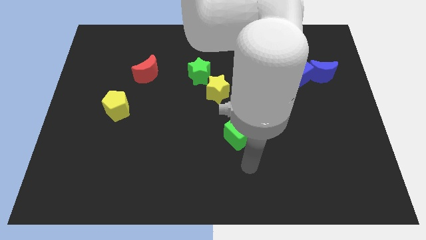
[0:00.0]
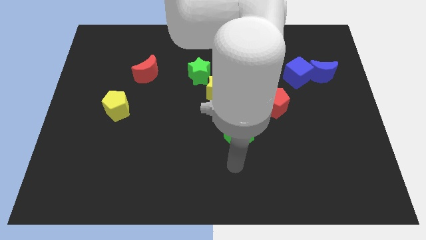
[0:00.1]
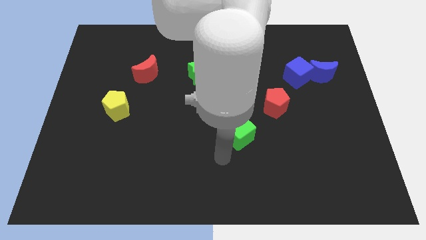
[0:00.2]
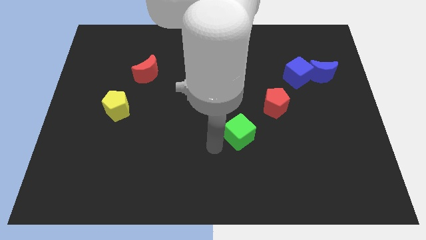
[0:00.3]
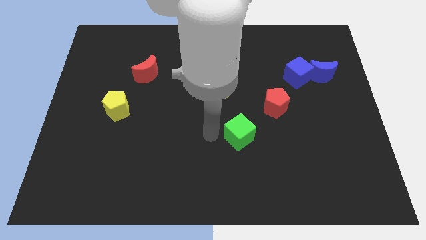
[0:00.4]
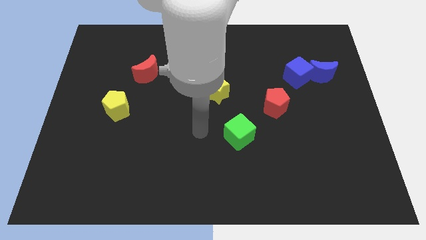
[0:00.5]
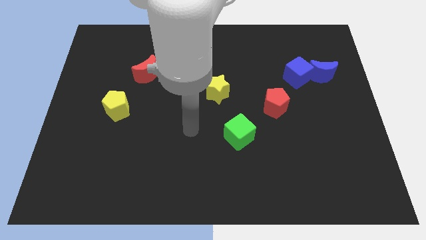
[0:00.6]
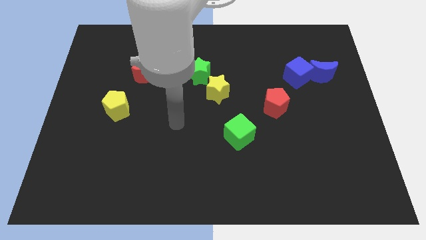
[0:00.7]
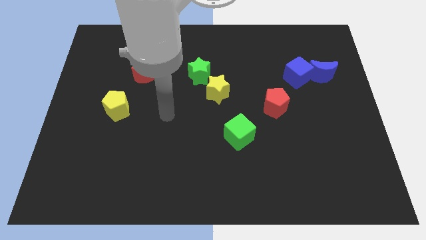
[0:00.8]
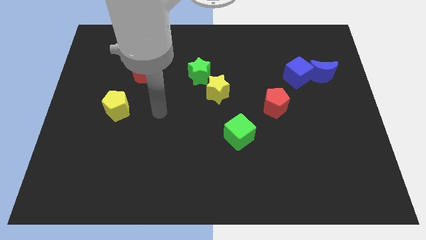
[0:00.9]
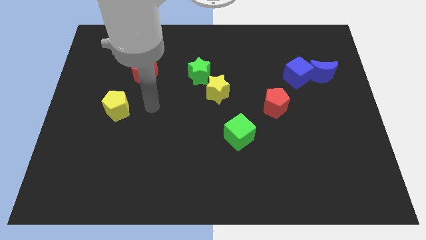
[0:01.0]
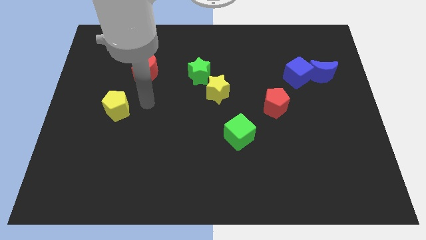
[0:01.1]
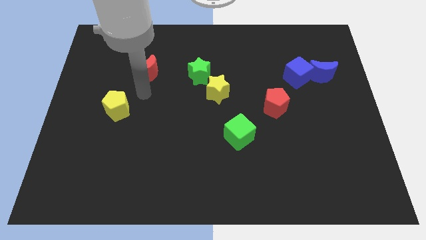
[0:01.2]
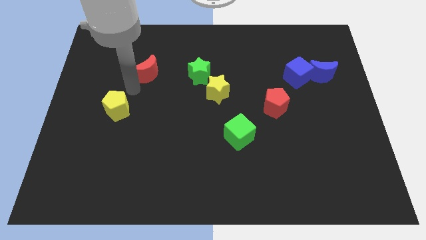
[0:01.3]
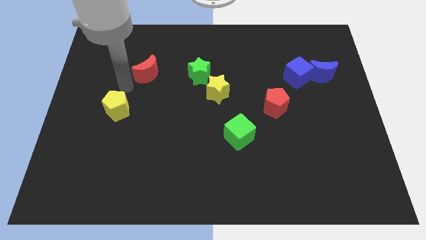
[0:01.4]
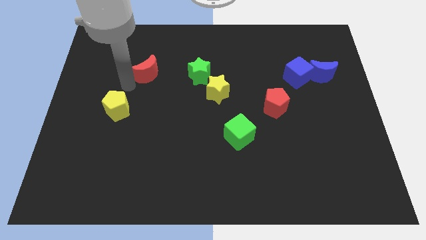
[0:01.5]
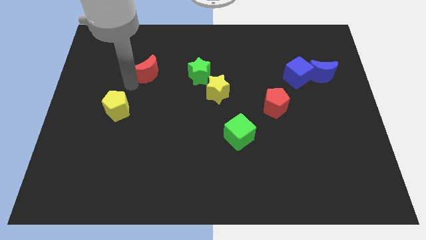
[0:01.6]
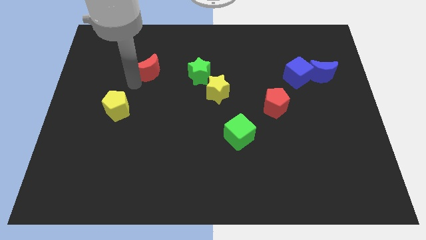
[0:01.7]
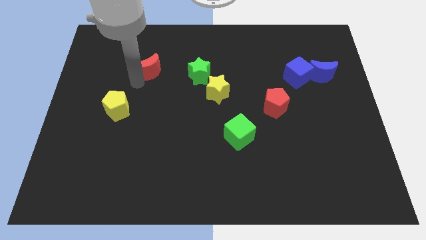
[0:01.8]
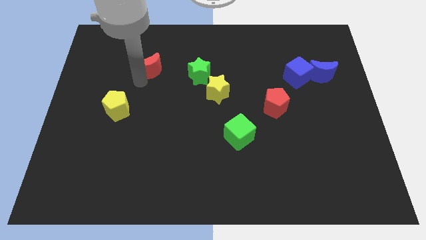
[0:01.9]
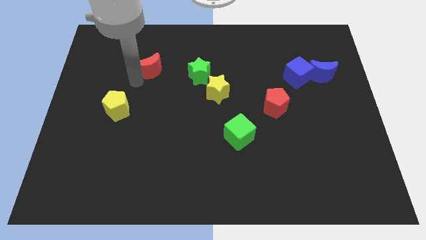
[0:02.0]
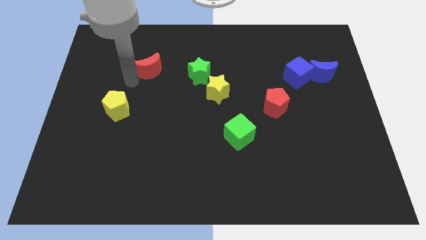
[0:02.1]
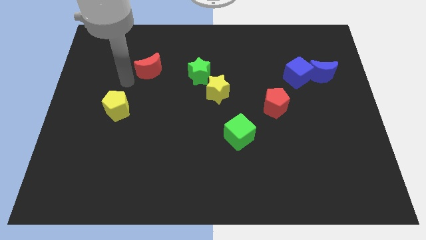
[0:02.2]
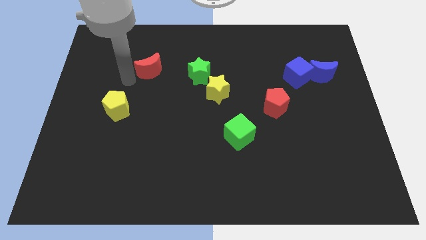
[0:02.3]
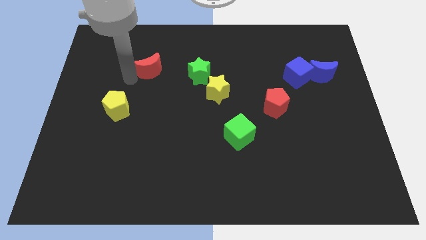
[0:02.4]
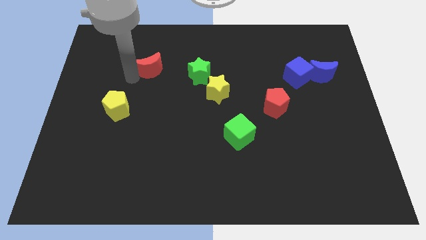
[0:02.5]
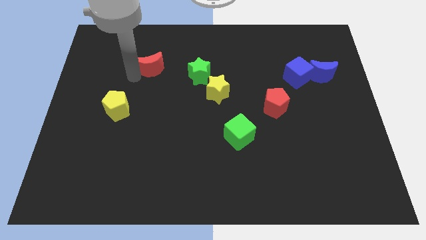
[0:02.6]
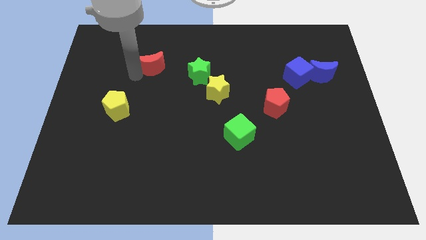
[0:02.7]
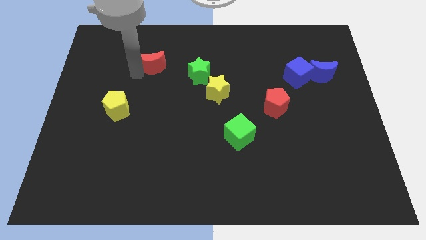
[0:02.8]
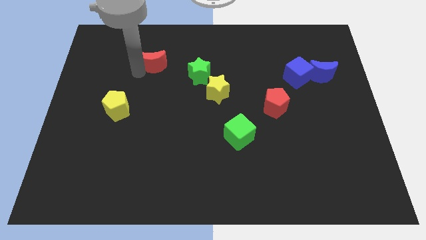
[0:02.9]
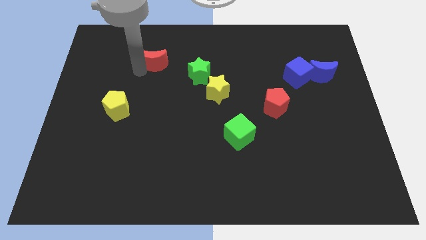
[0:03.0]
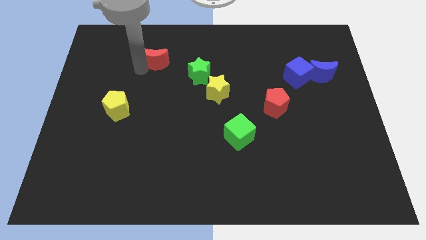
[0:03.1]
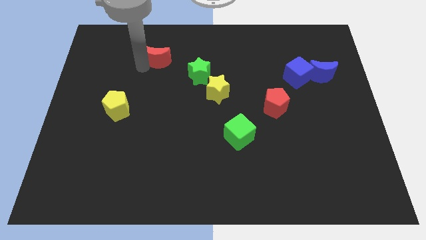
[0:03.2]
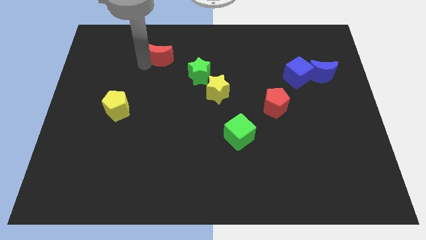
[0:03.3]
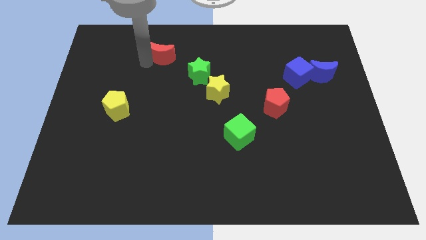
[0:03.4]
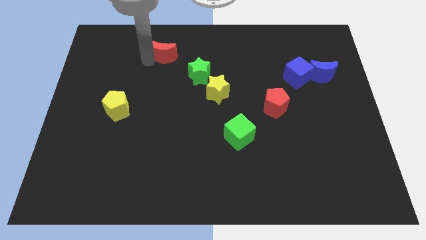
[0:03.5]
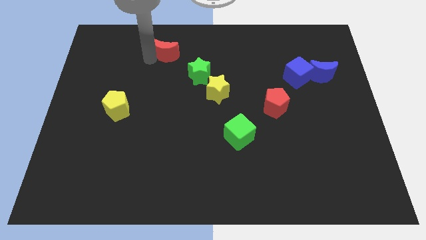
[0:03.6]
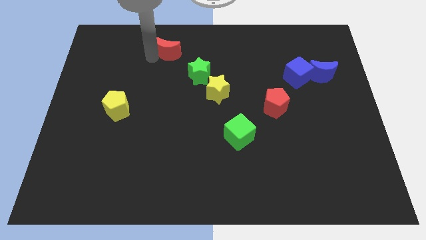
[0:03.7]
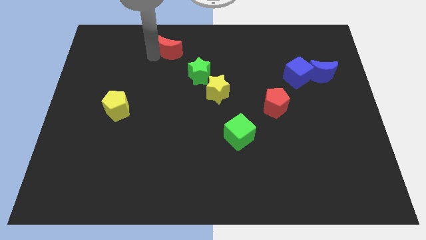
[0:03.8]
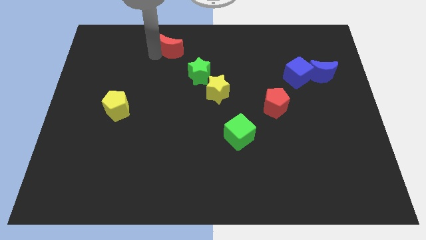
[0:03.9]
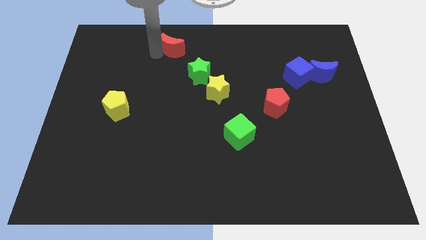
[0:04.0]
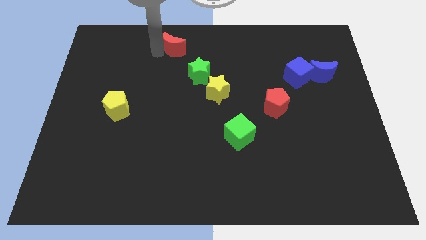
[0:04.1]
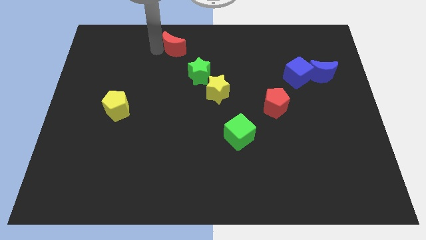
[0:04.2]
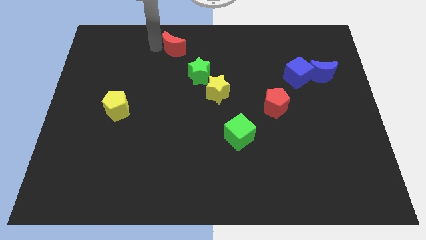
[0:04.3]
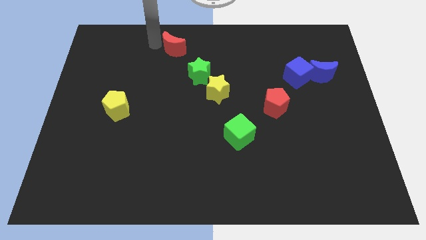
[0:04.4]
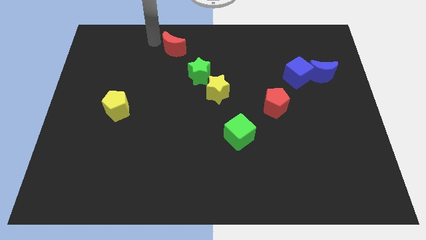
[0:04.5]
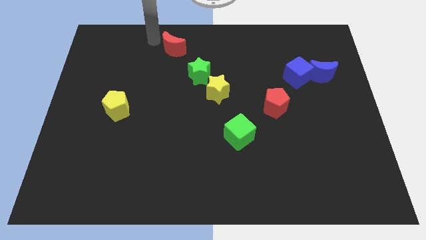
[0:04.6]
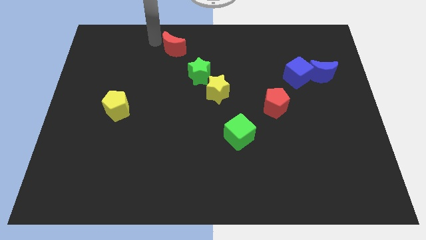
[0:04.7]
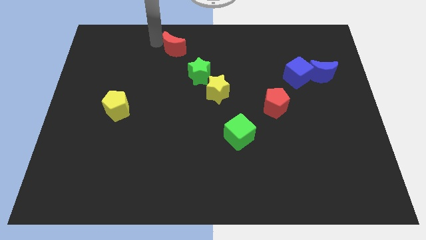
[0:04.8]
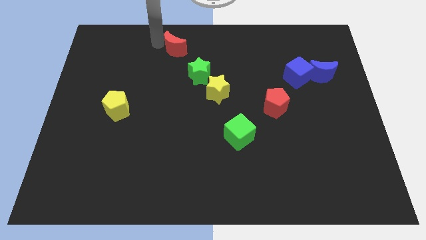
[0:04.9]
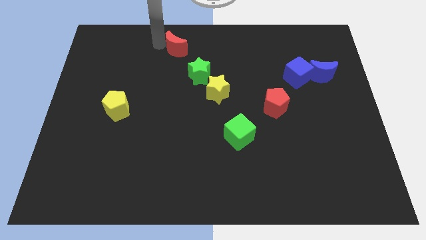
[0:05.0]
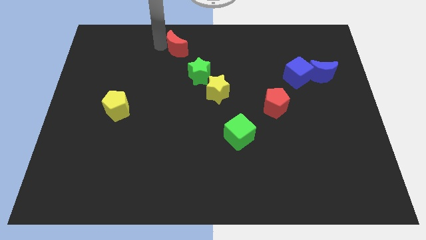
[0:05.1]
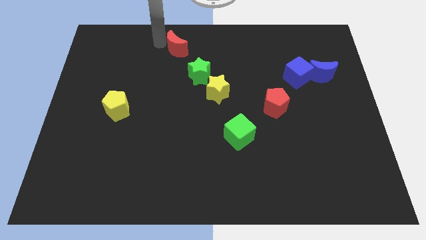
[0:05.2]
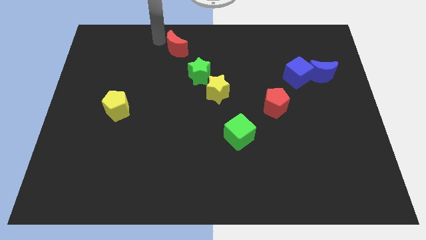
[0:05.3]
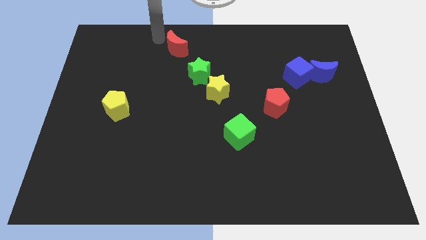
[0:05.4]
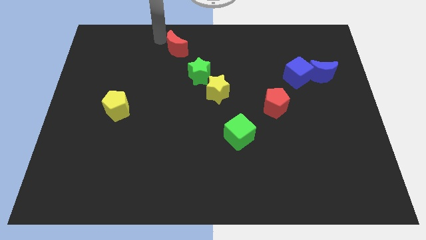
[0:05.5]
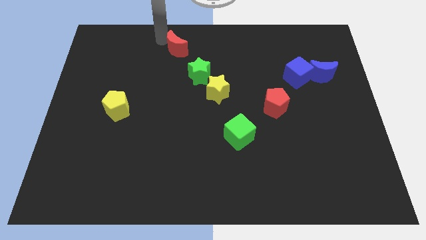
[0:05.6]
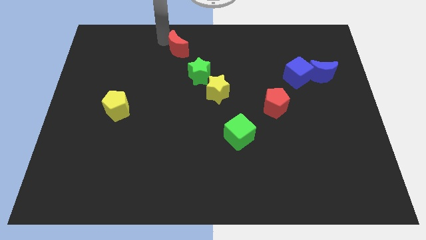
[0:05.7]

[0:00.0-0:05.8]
move the red moon to the top side
